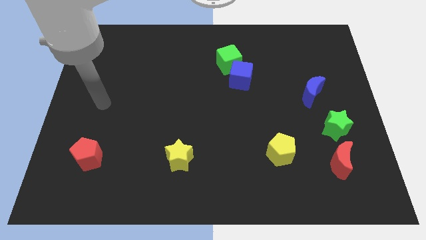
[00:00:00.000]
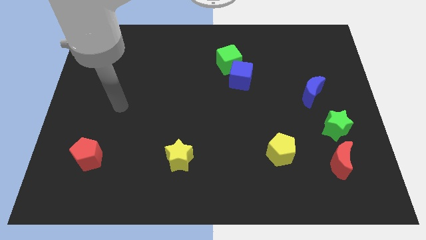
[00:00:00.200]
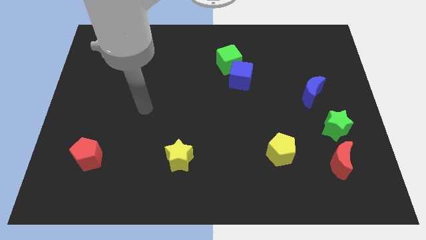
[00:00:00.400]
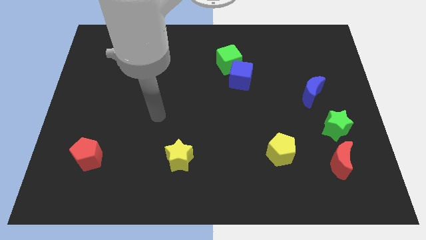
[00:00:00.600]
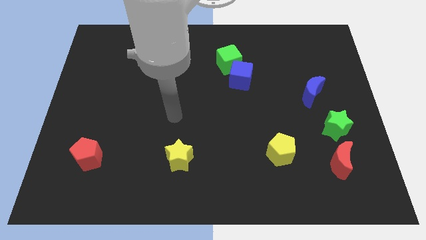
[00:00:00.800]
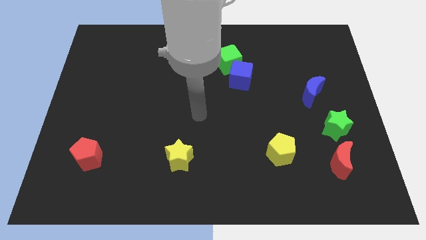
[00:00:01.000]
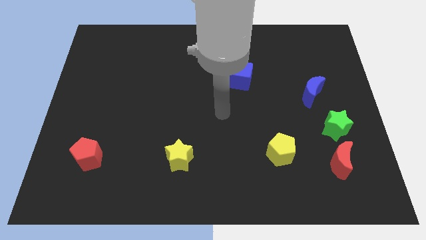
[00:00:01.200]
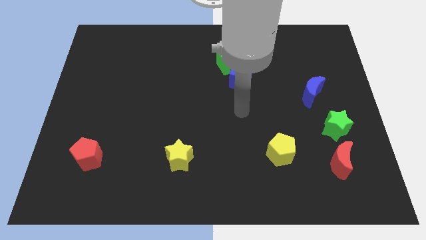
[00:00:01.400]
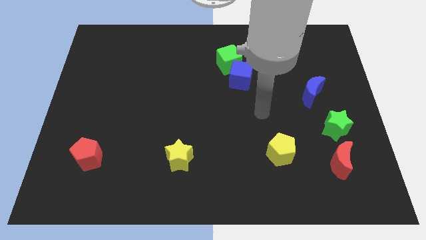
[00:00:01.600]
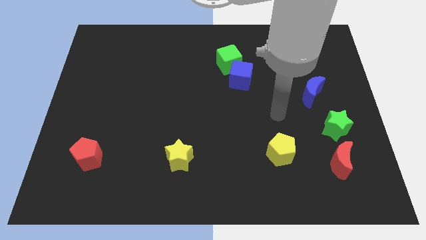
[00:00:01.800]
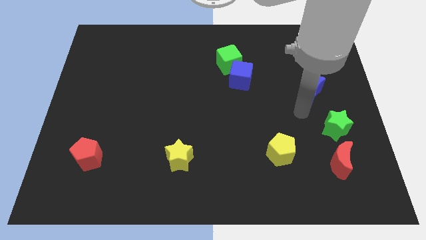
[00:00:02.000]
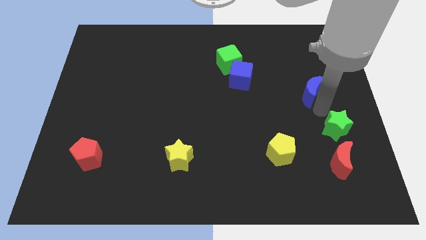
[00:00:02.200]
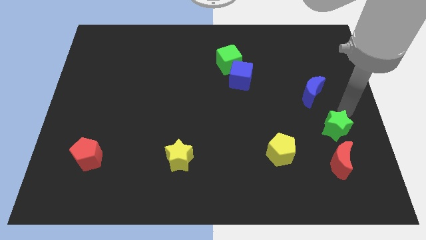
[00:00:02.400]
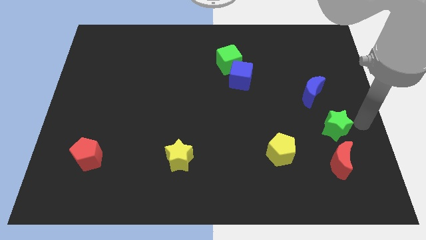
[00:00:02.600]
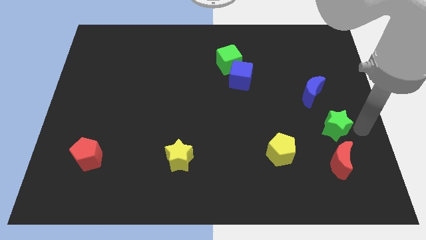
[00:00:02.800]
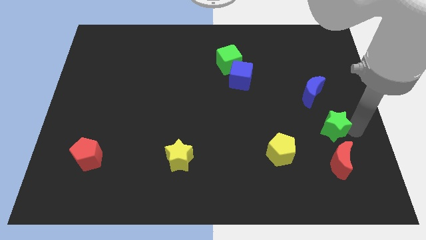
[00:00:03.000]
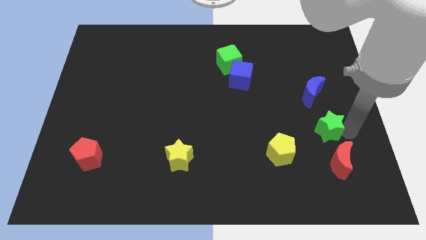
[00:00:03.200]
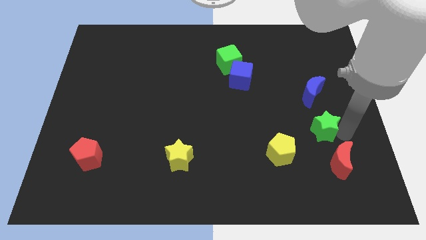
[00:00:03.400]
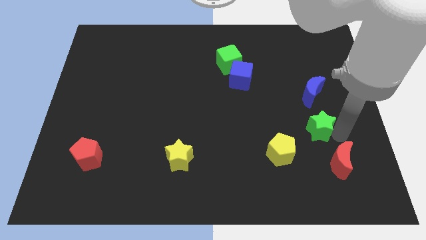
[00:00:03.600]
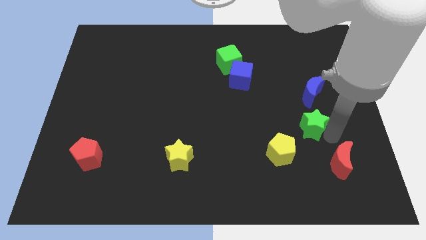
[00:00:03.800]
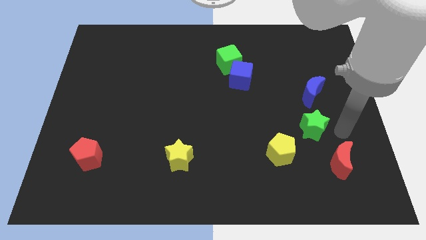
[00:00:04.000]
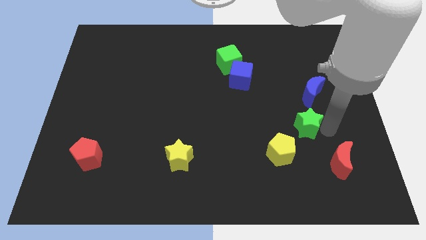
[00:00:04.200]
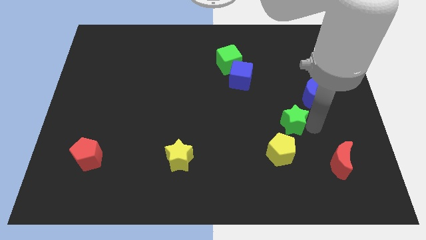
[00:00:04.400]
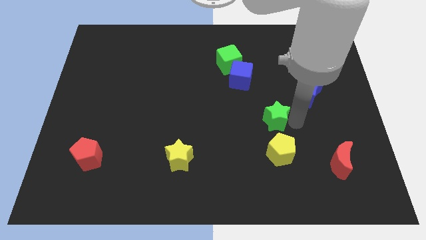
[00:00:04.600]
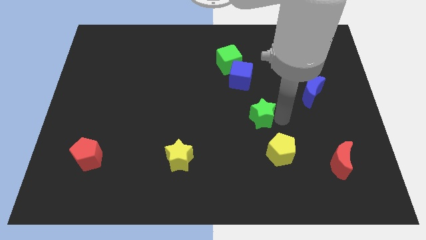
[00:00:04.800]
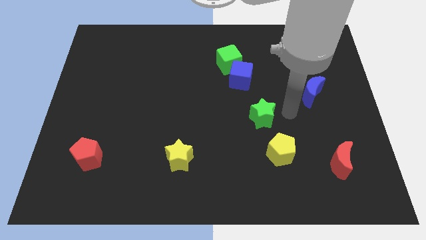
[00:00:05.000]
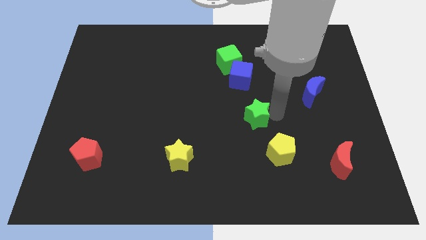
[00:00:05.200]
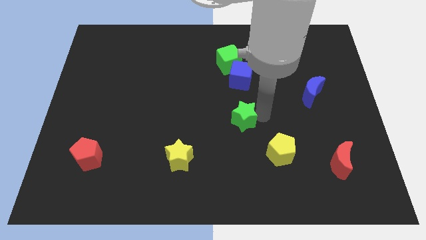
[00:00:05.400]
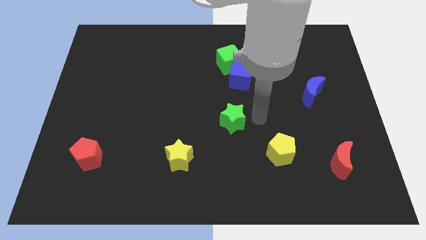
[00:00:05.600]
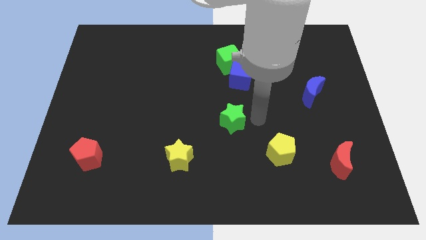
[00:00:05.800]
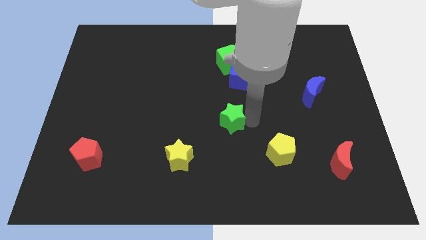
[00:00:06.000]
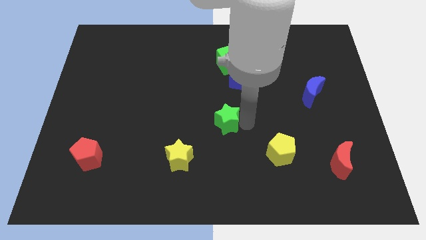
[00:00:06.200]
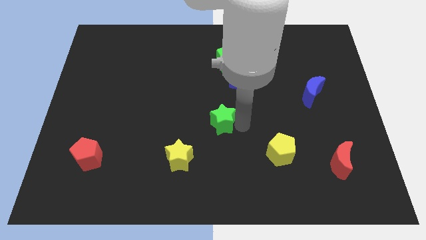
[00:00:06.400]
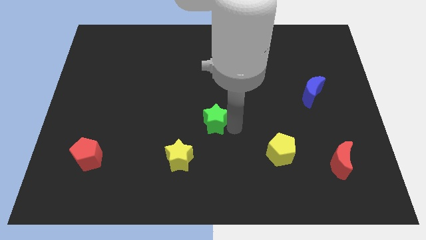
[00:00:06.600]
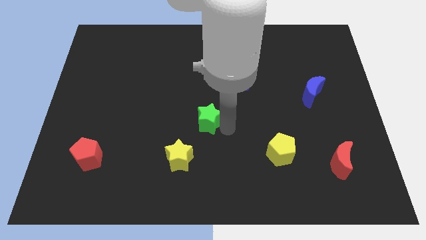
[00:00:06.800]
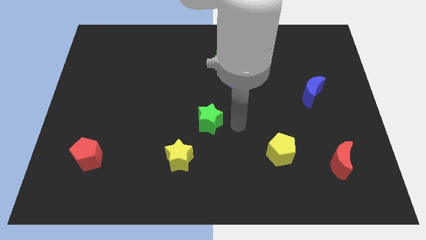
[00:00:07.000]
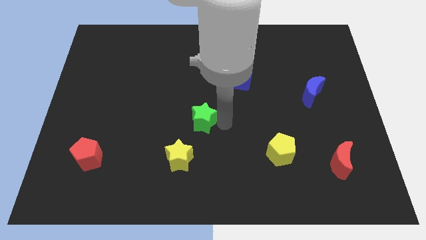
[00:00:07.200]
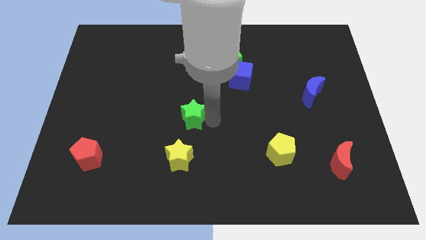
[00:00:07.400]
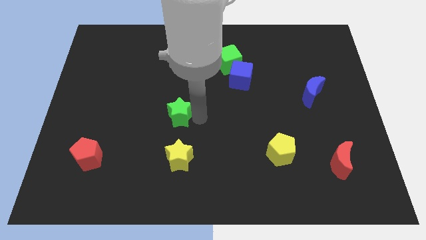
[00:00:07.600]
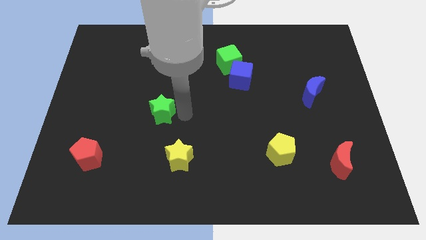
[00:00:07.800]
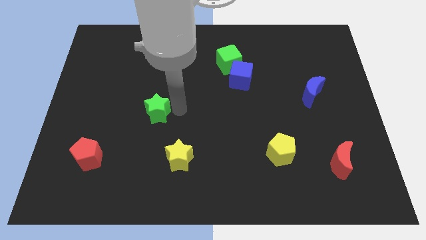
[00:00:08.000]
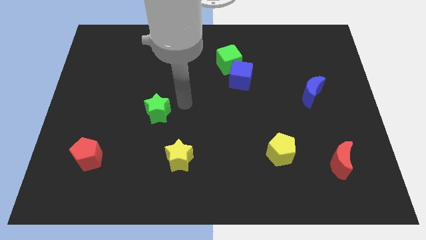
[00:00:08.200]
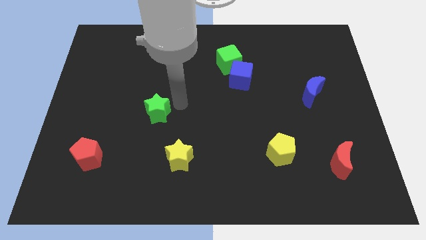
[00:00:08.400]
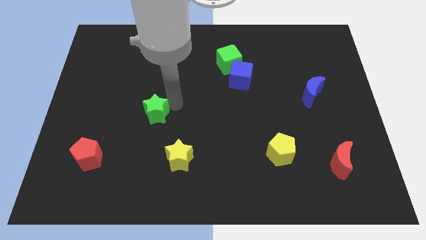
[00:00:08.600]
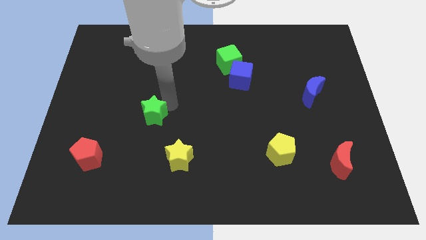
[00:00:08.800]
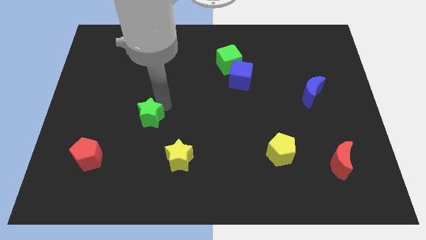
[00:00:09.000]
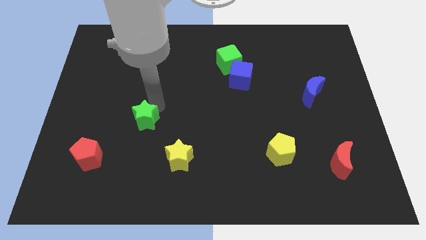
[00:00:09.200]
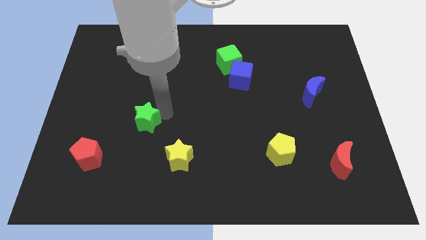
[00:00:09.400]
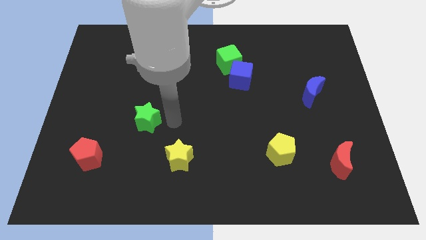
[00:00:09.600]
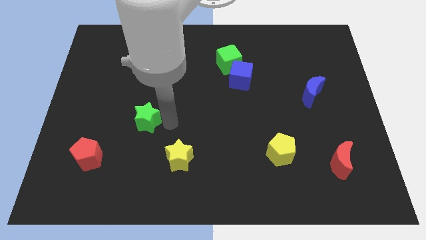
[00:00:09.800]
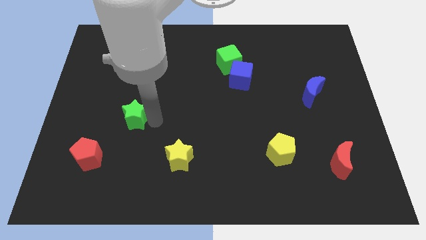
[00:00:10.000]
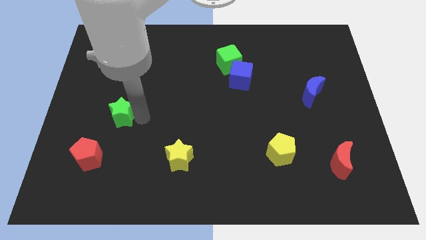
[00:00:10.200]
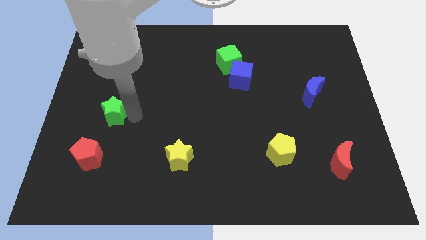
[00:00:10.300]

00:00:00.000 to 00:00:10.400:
put the green star to the top of the red pentagon

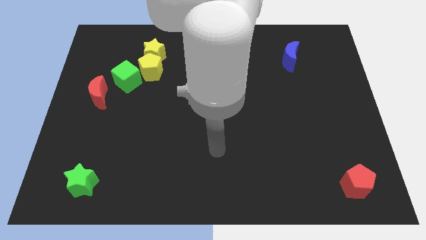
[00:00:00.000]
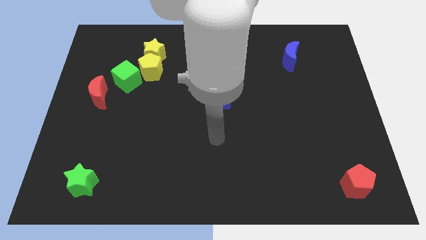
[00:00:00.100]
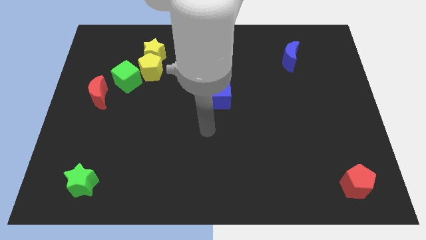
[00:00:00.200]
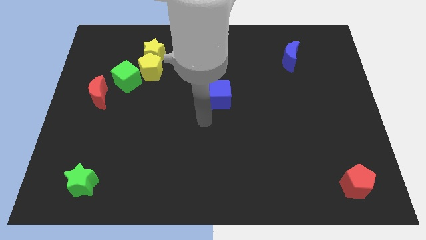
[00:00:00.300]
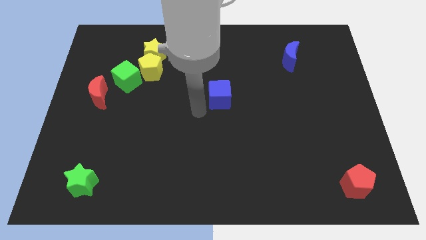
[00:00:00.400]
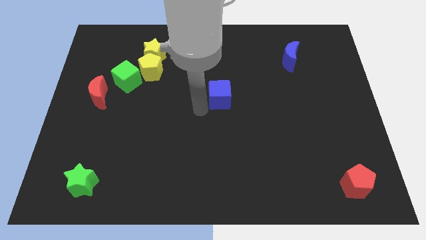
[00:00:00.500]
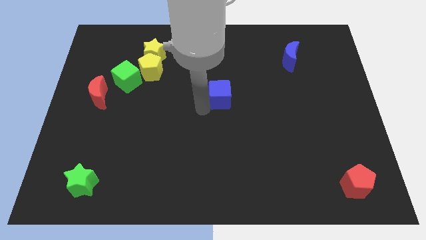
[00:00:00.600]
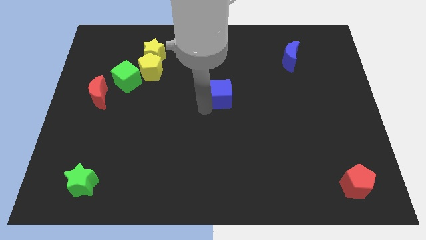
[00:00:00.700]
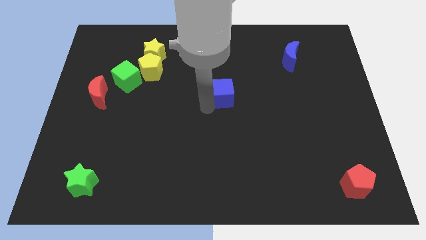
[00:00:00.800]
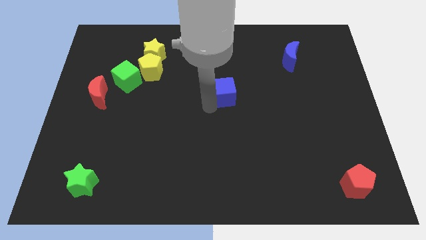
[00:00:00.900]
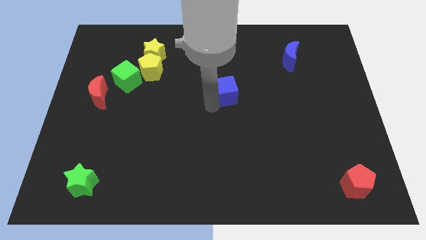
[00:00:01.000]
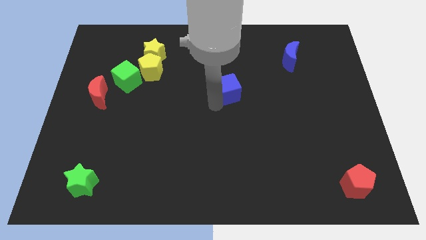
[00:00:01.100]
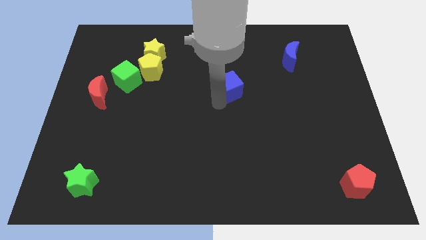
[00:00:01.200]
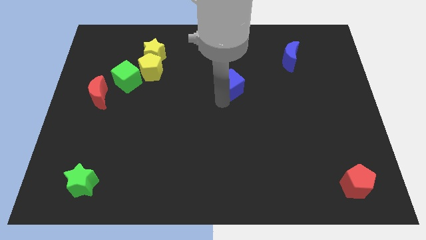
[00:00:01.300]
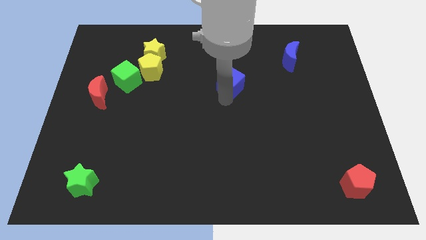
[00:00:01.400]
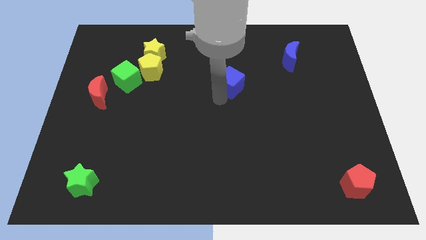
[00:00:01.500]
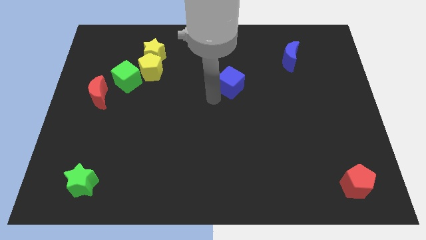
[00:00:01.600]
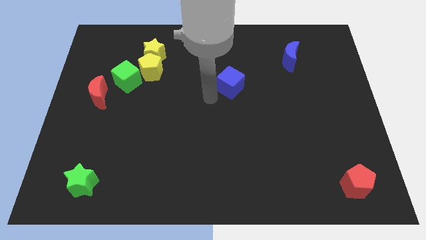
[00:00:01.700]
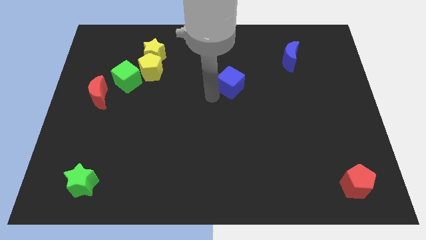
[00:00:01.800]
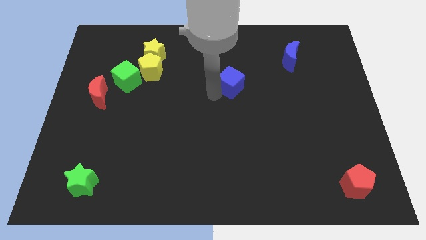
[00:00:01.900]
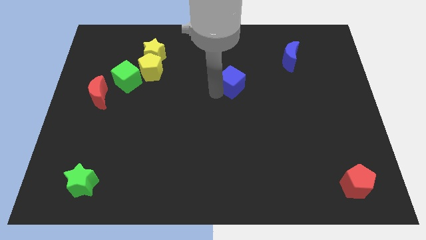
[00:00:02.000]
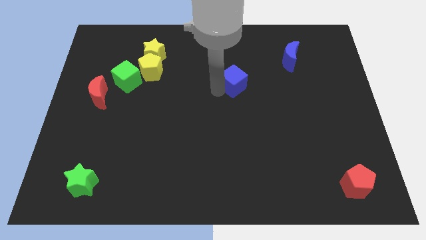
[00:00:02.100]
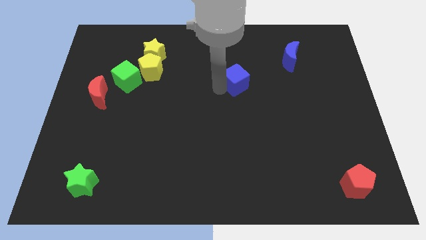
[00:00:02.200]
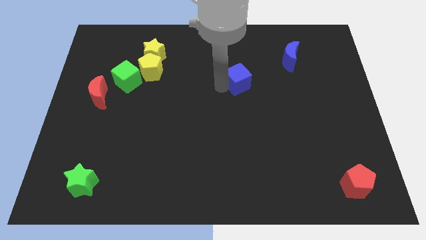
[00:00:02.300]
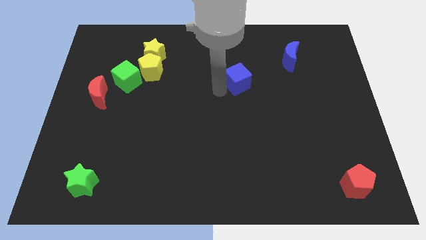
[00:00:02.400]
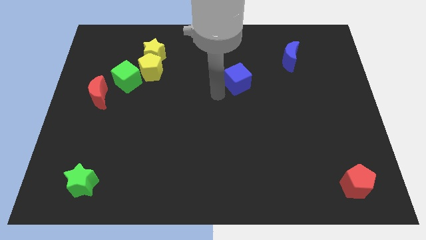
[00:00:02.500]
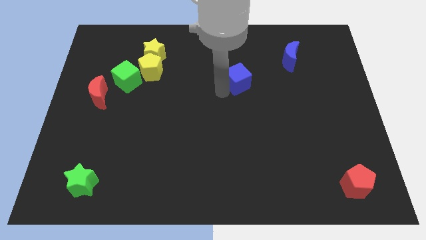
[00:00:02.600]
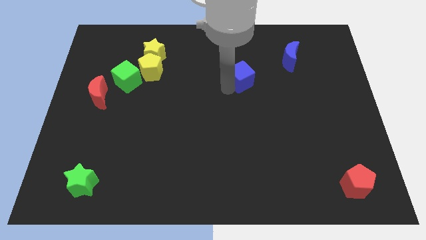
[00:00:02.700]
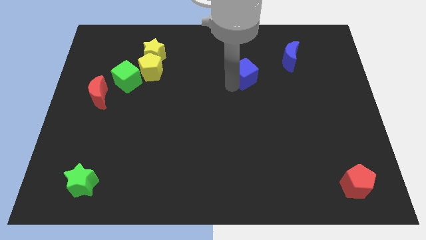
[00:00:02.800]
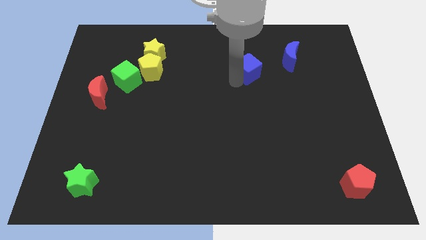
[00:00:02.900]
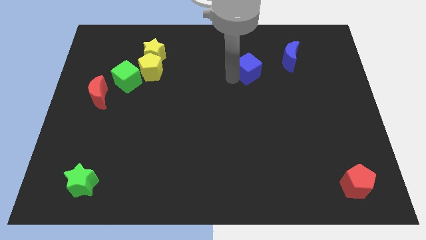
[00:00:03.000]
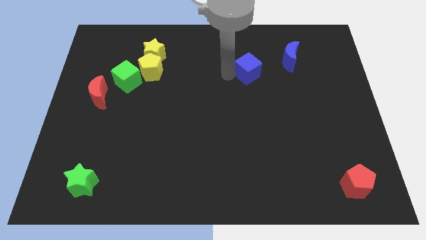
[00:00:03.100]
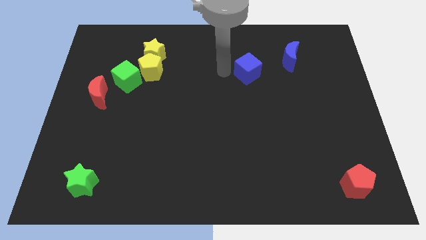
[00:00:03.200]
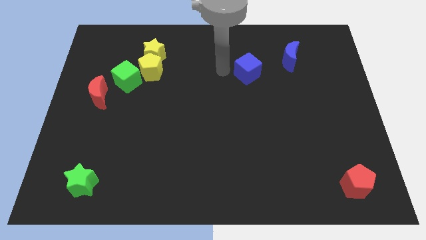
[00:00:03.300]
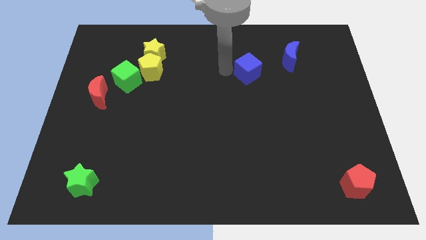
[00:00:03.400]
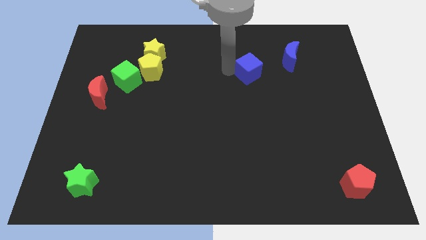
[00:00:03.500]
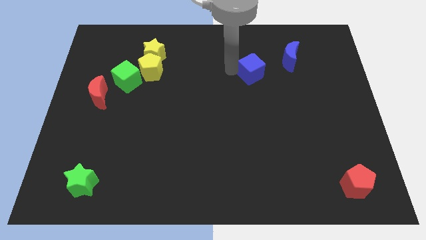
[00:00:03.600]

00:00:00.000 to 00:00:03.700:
push the blue cube diagonally down and to the left of the blue moon
